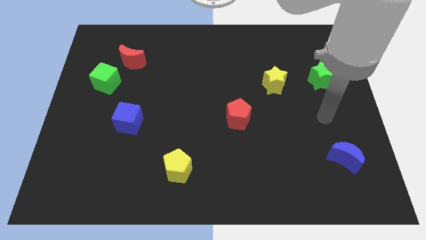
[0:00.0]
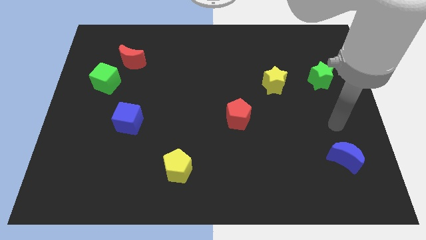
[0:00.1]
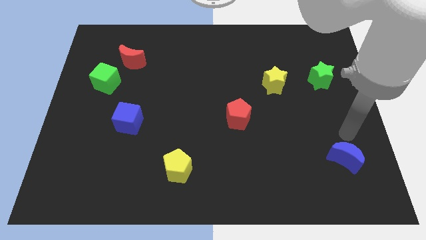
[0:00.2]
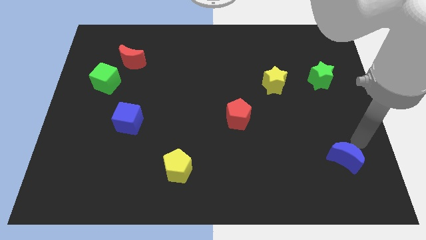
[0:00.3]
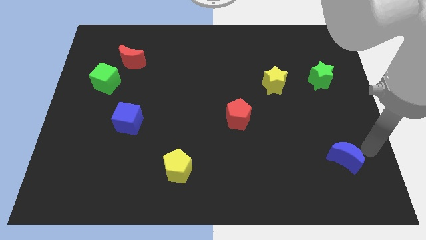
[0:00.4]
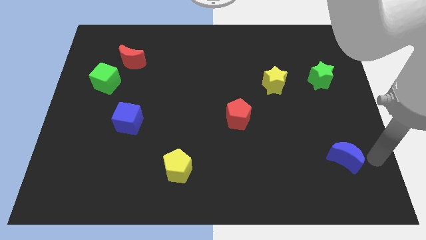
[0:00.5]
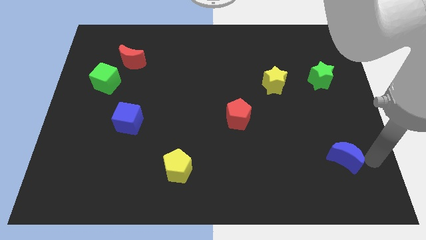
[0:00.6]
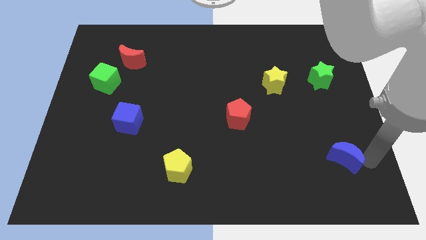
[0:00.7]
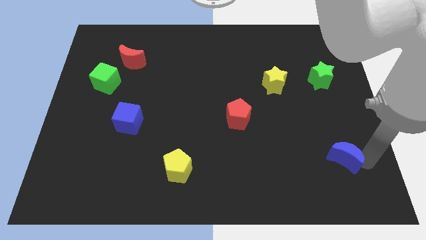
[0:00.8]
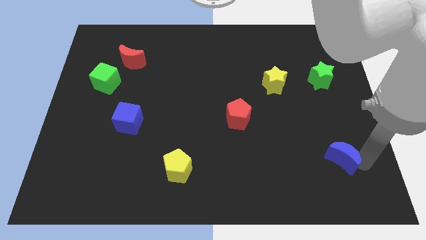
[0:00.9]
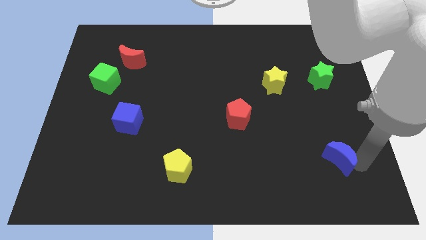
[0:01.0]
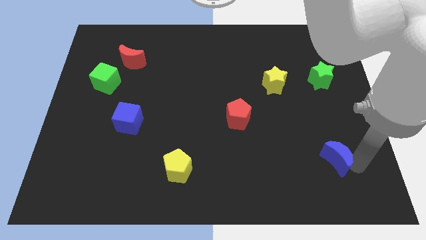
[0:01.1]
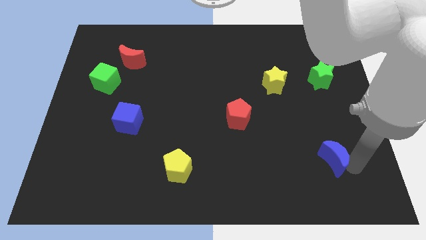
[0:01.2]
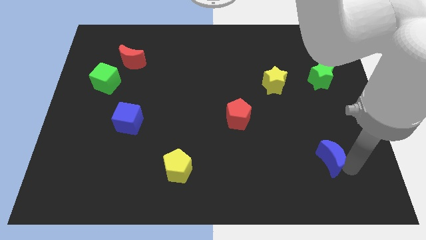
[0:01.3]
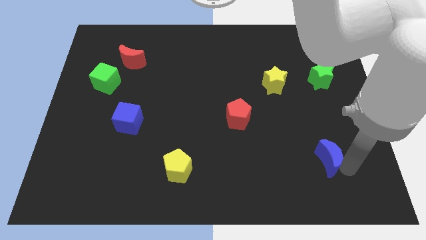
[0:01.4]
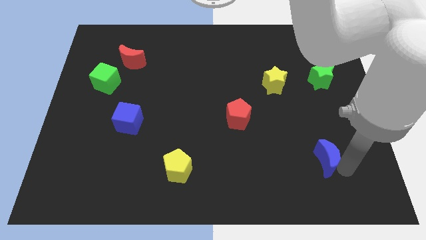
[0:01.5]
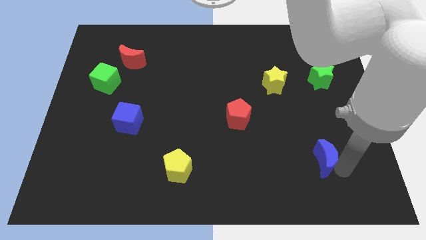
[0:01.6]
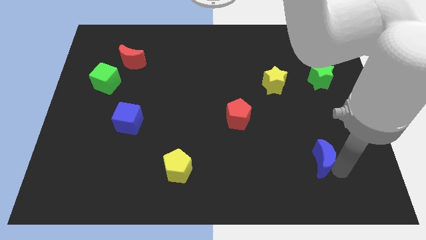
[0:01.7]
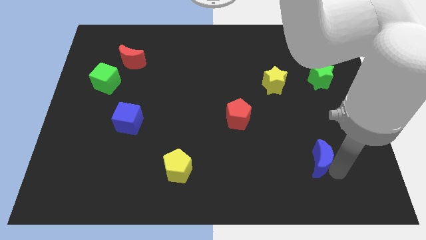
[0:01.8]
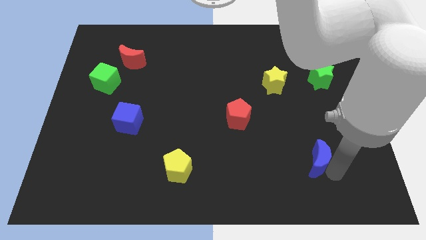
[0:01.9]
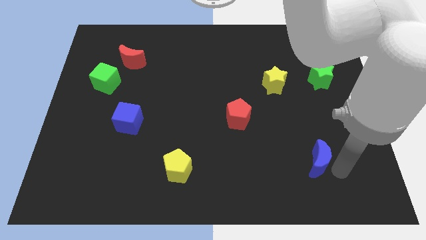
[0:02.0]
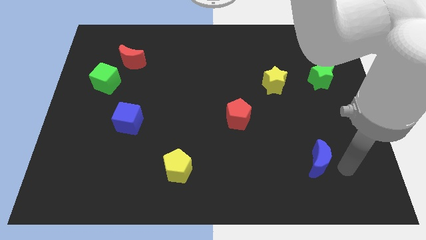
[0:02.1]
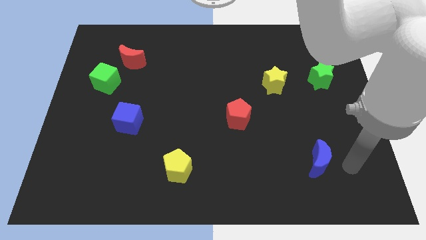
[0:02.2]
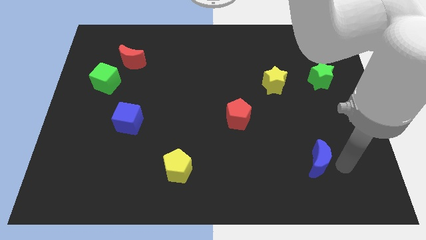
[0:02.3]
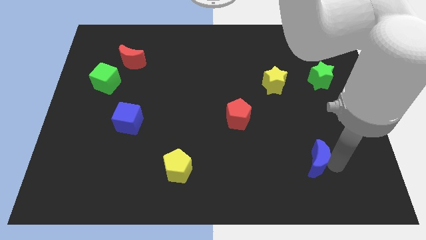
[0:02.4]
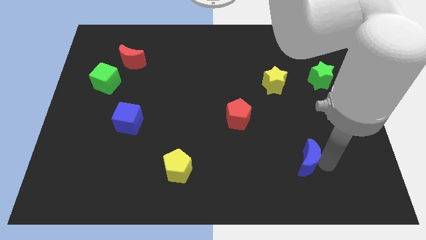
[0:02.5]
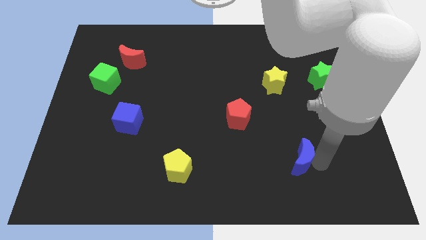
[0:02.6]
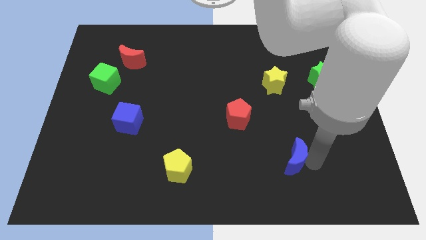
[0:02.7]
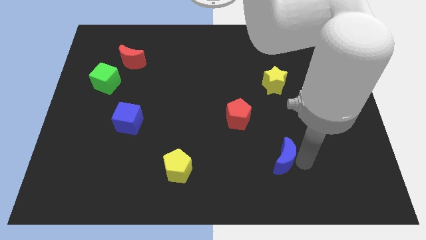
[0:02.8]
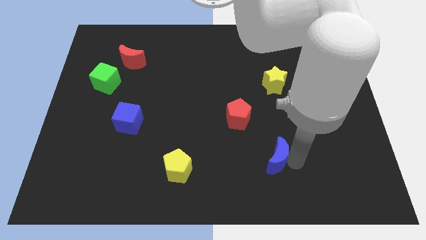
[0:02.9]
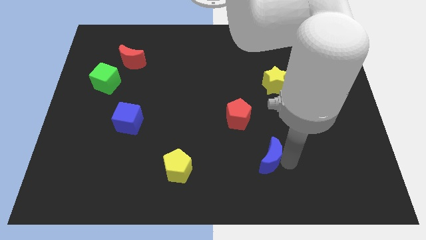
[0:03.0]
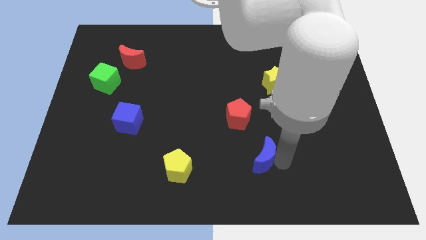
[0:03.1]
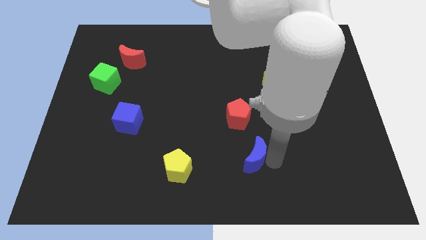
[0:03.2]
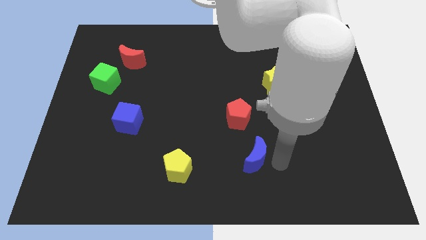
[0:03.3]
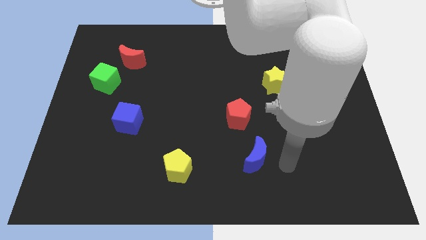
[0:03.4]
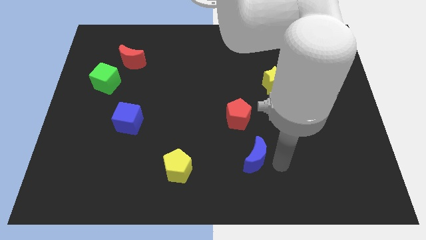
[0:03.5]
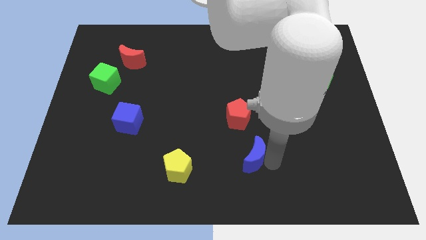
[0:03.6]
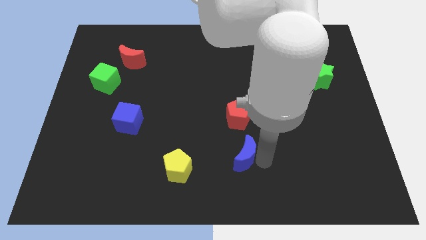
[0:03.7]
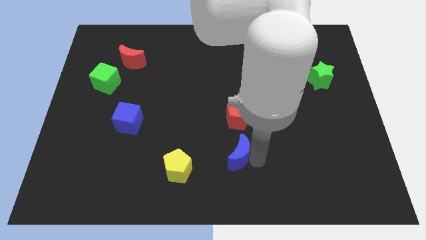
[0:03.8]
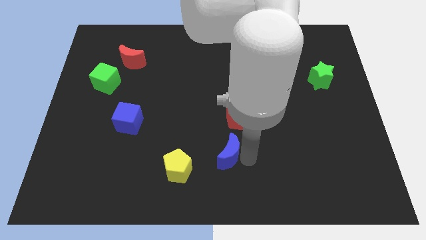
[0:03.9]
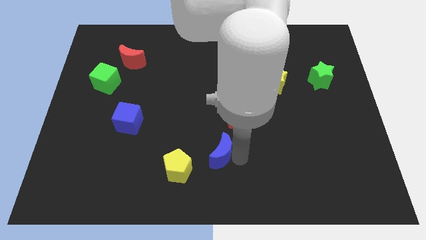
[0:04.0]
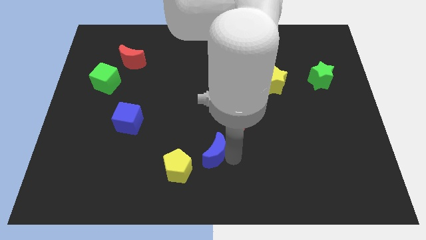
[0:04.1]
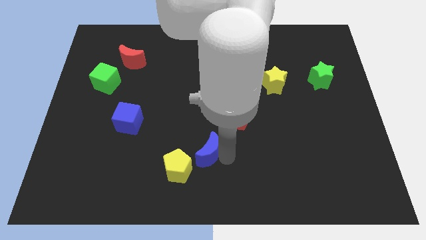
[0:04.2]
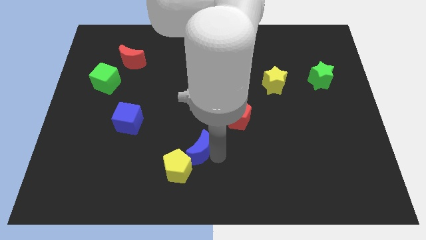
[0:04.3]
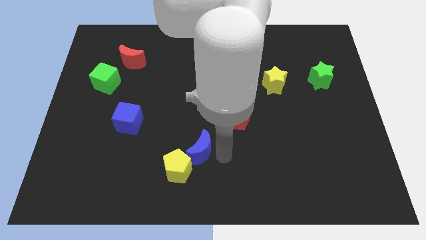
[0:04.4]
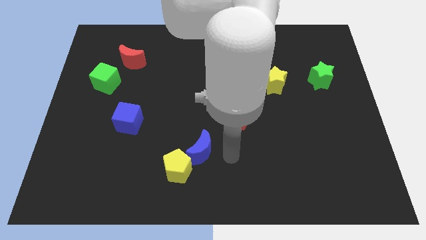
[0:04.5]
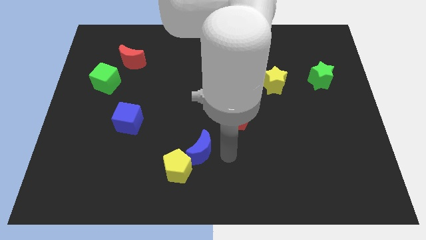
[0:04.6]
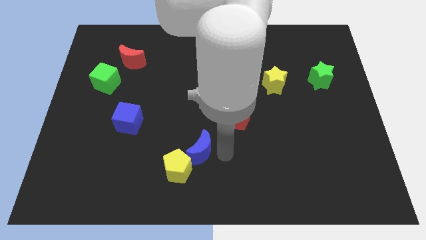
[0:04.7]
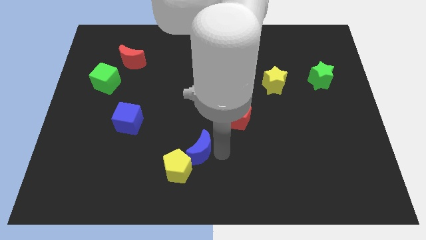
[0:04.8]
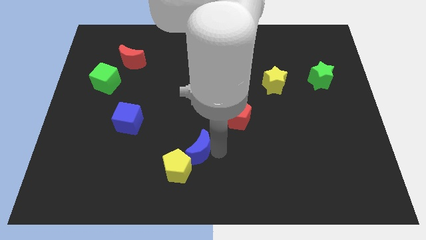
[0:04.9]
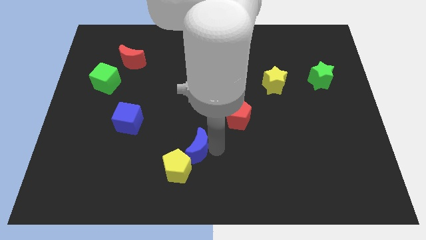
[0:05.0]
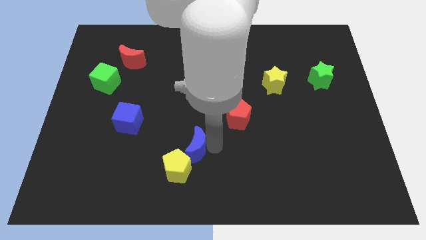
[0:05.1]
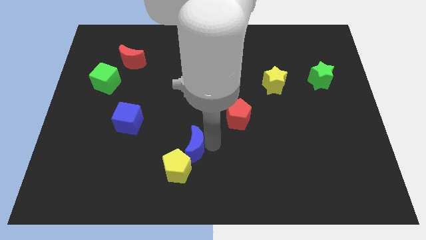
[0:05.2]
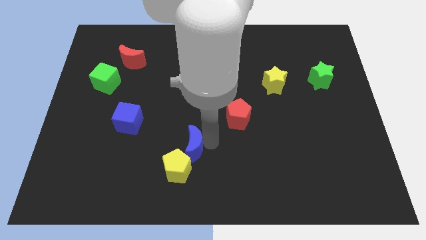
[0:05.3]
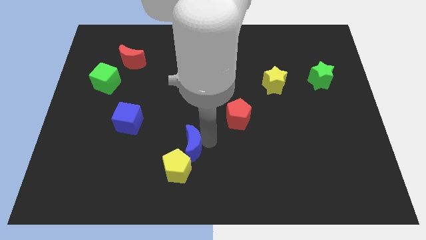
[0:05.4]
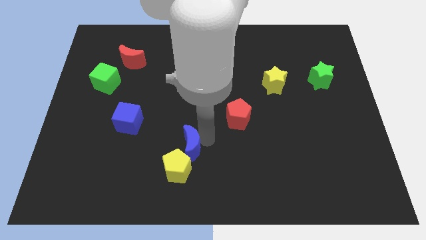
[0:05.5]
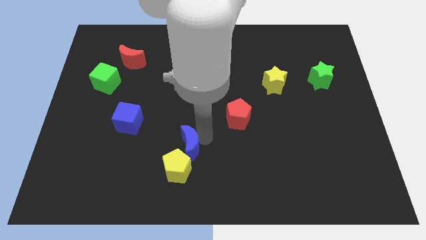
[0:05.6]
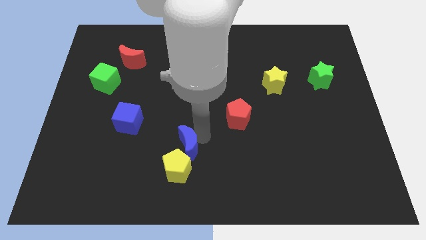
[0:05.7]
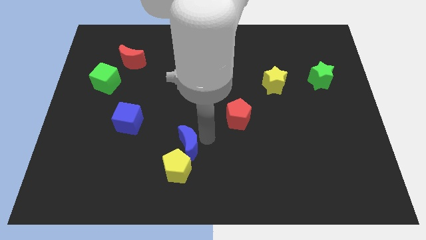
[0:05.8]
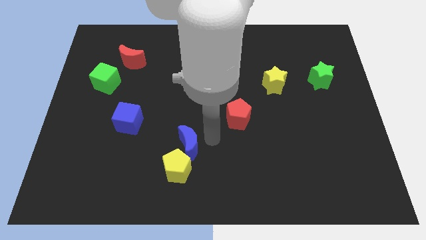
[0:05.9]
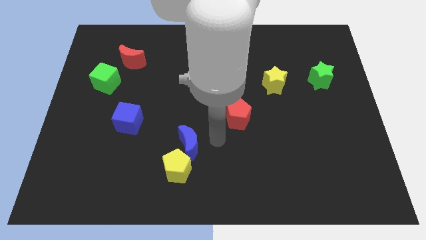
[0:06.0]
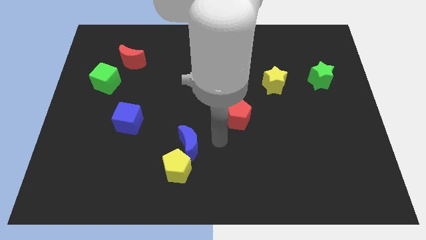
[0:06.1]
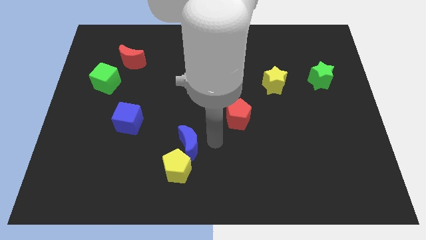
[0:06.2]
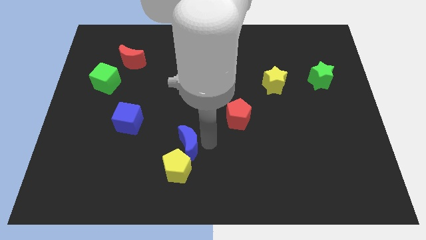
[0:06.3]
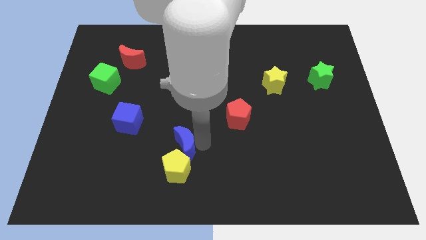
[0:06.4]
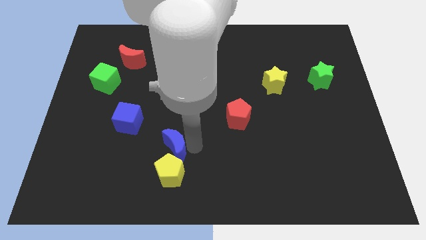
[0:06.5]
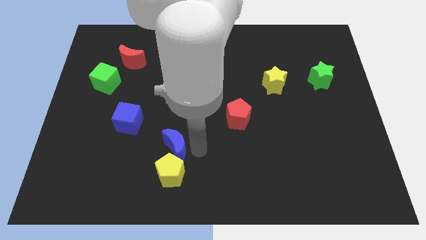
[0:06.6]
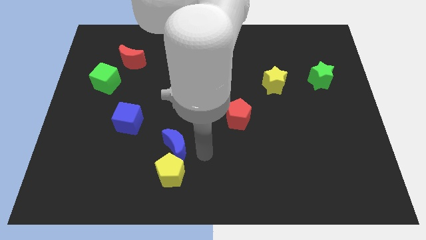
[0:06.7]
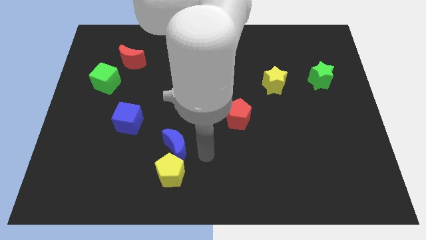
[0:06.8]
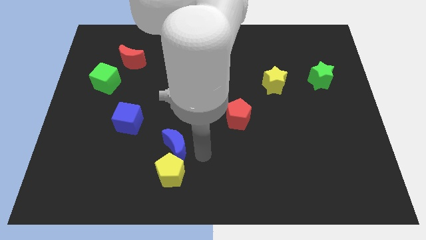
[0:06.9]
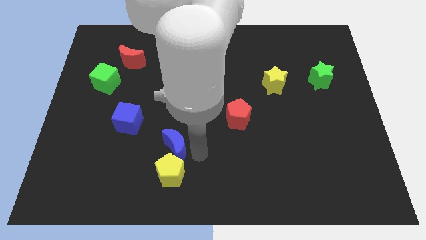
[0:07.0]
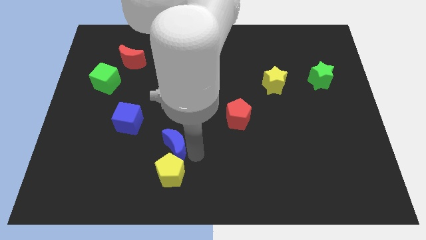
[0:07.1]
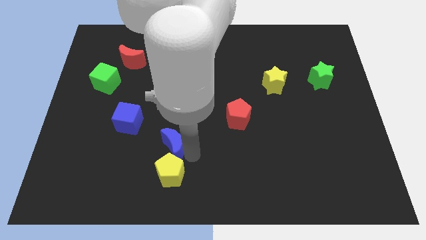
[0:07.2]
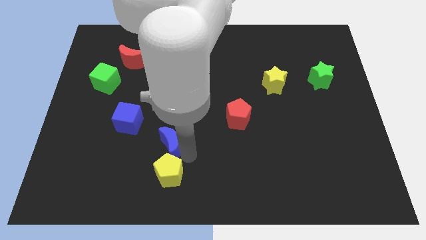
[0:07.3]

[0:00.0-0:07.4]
slide the blue moon diagonally down and to the right of the blue cube

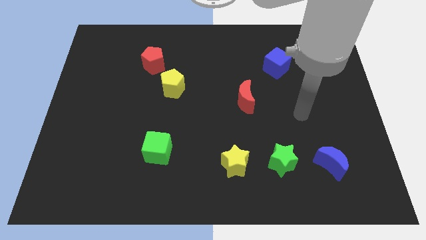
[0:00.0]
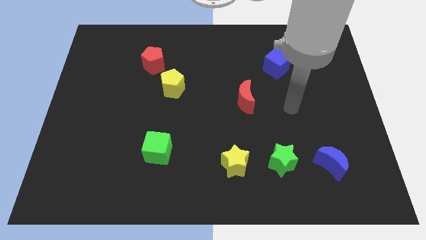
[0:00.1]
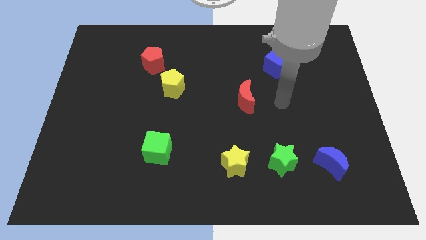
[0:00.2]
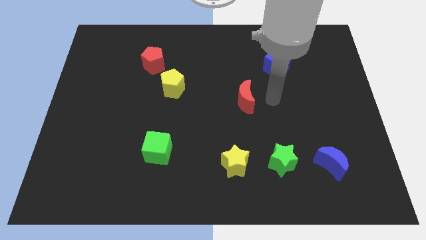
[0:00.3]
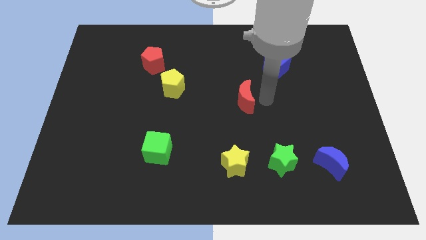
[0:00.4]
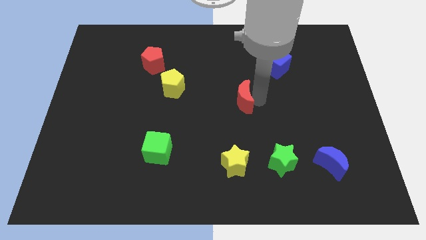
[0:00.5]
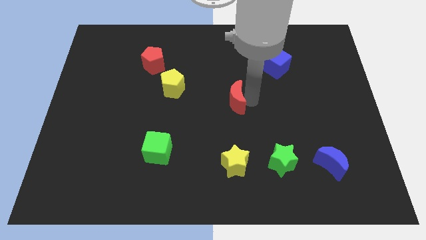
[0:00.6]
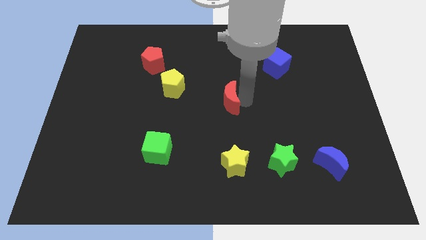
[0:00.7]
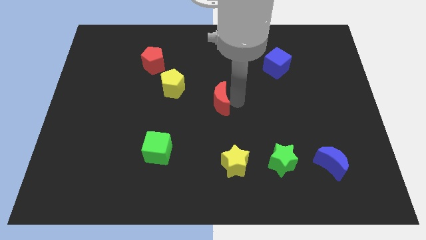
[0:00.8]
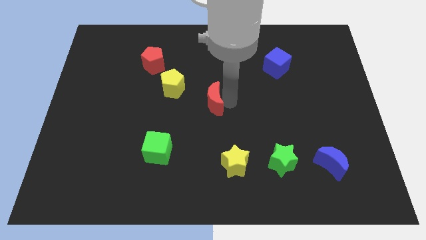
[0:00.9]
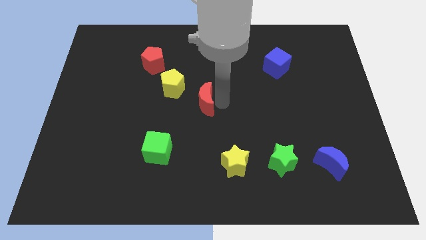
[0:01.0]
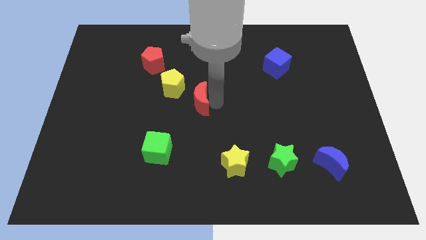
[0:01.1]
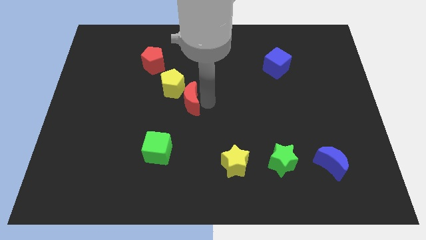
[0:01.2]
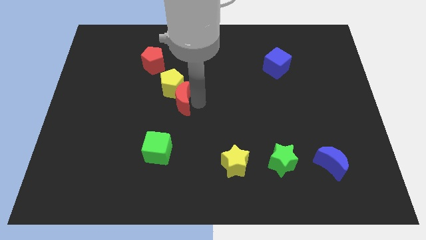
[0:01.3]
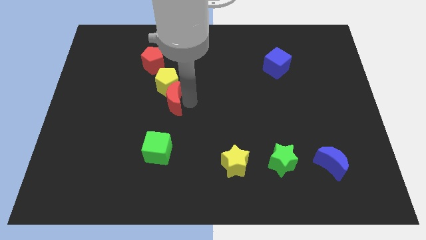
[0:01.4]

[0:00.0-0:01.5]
move the red moon to the bottom left side of the yellow pentagon
